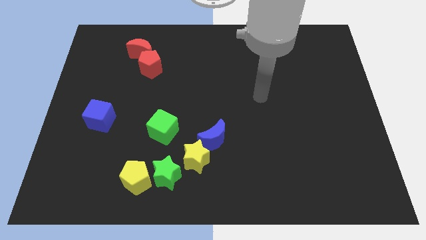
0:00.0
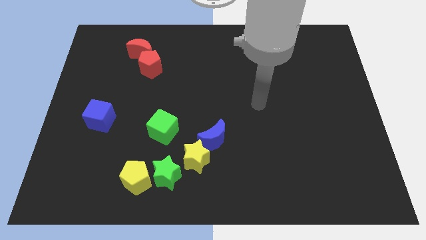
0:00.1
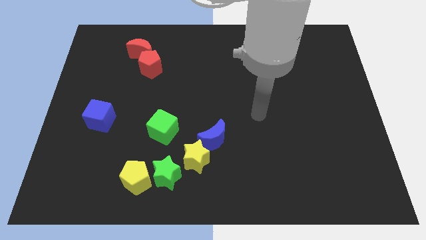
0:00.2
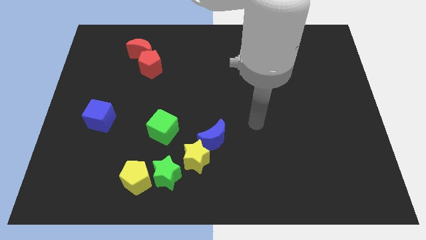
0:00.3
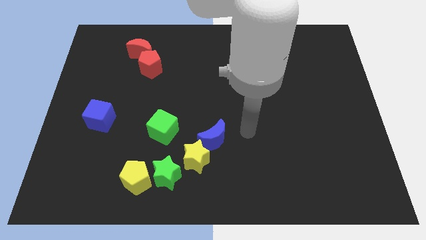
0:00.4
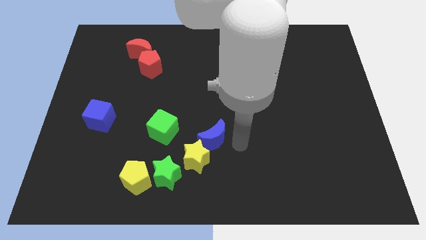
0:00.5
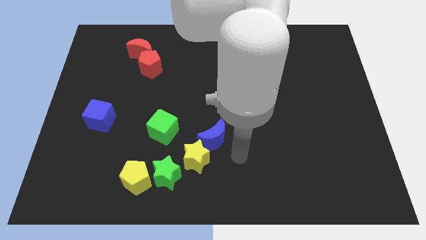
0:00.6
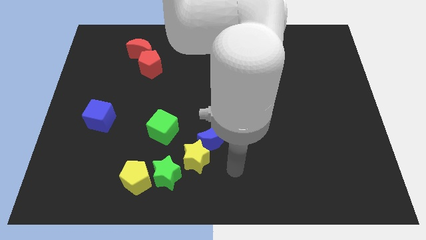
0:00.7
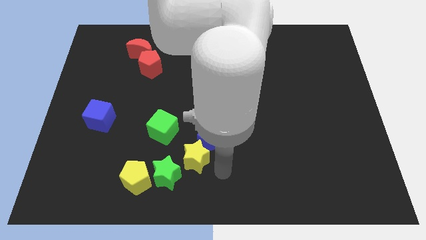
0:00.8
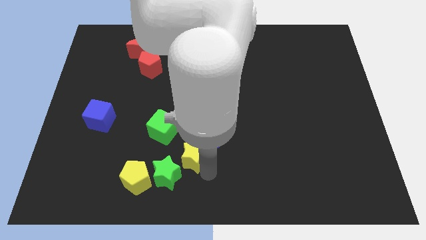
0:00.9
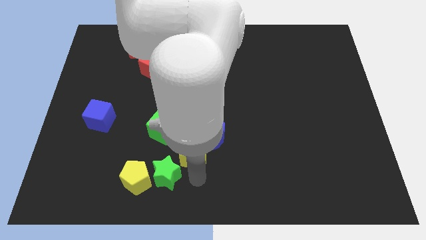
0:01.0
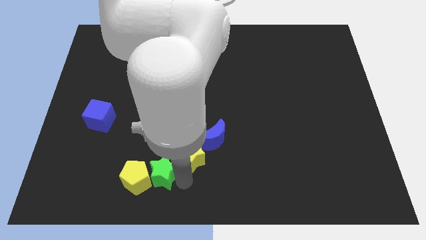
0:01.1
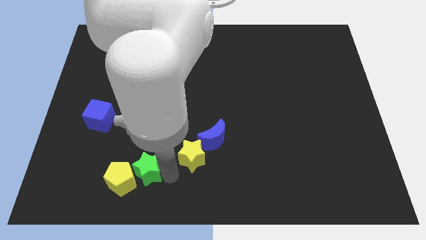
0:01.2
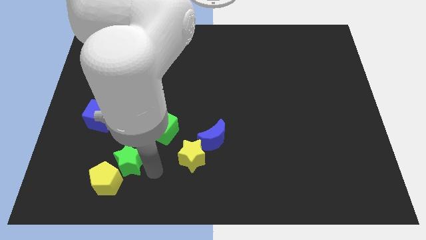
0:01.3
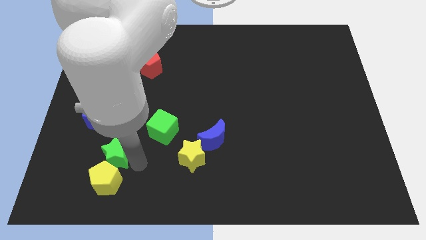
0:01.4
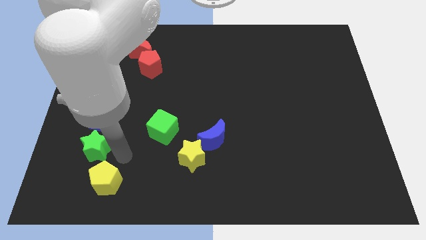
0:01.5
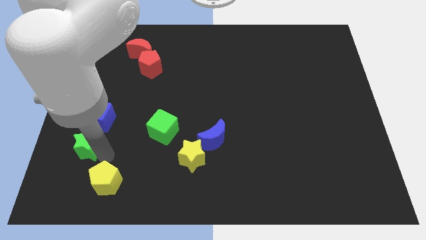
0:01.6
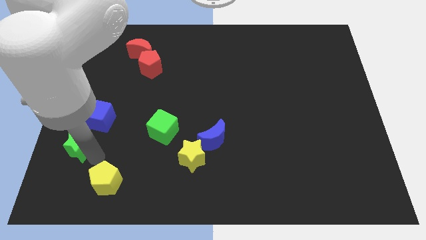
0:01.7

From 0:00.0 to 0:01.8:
separate the yellow pentagon from the green star

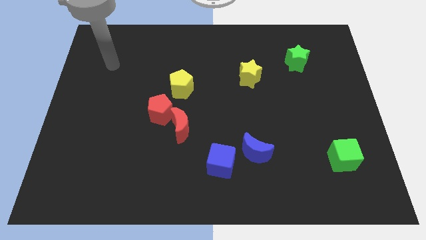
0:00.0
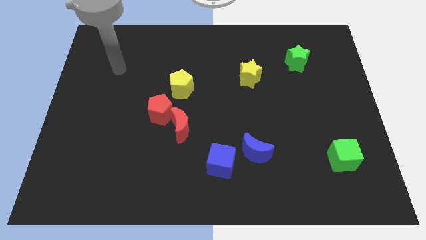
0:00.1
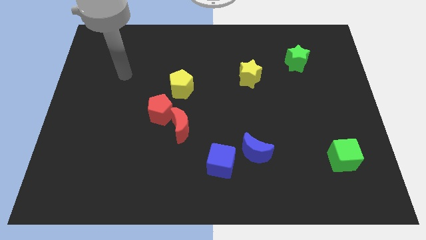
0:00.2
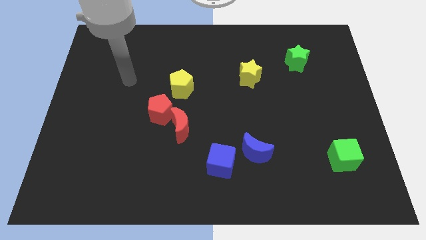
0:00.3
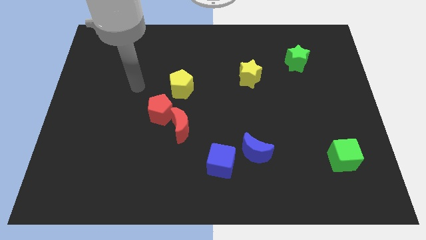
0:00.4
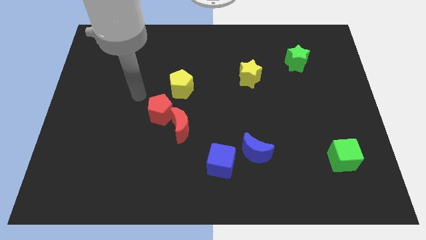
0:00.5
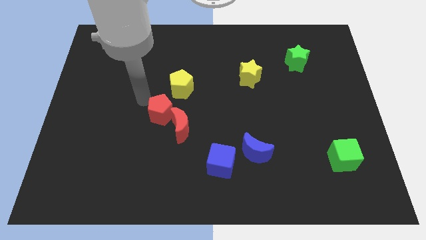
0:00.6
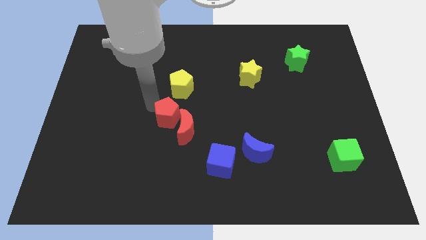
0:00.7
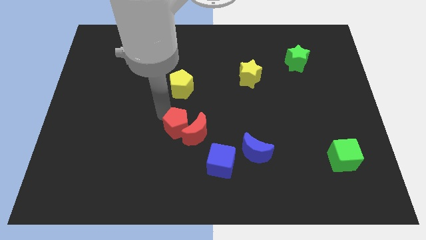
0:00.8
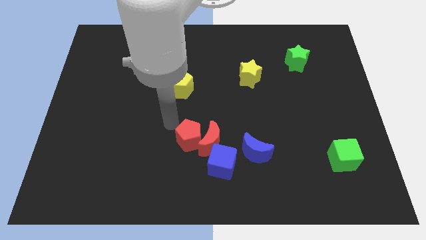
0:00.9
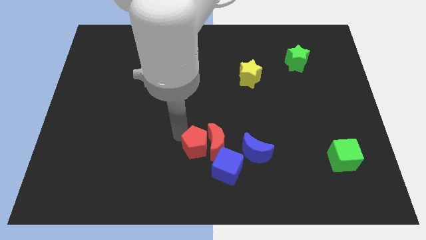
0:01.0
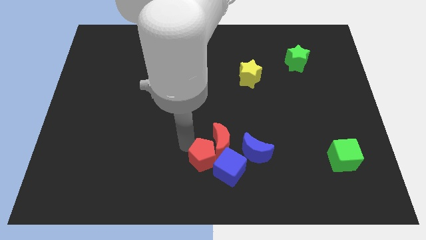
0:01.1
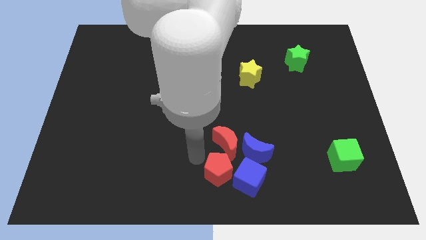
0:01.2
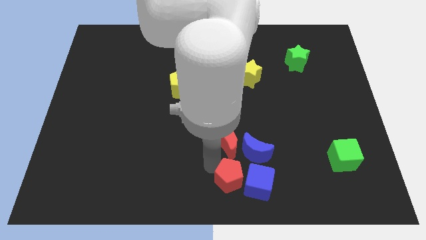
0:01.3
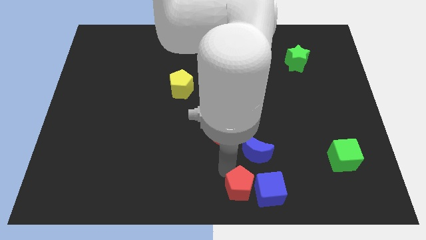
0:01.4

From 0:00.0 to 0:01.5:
move the red moon away from the red pentagon

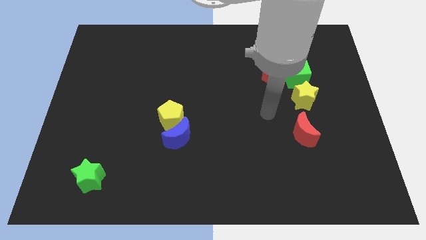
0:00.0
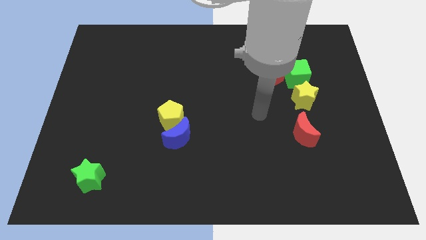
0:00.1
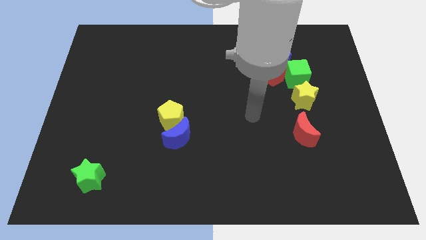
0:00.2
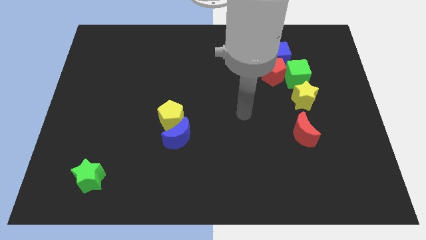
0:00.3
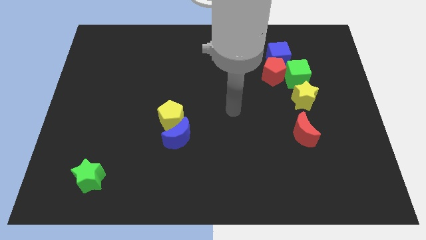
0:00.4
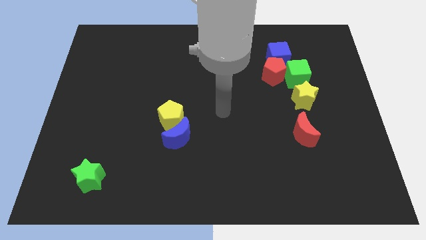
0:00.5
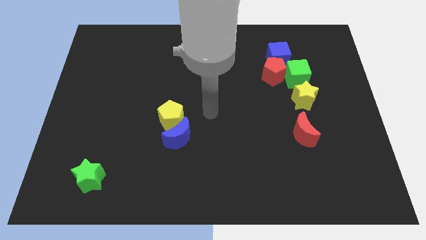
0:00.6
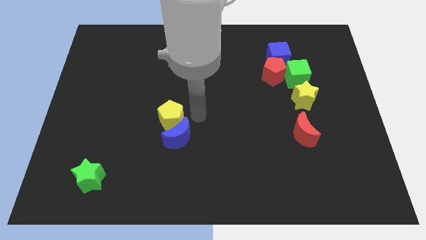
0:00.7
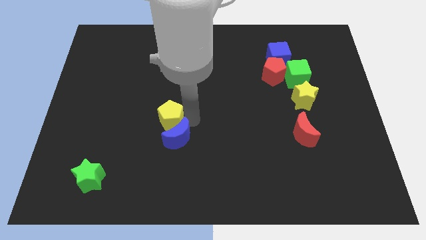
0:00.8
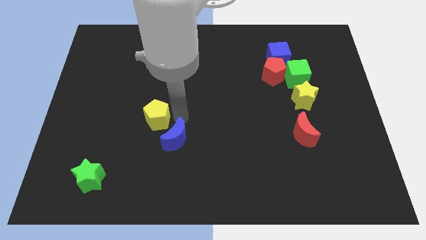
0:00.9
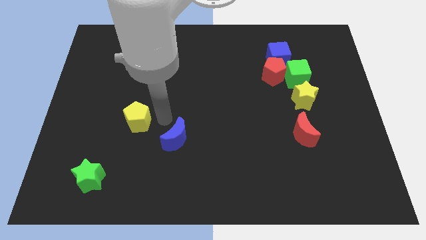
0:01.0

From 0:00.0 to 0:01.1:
move the blue moon away from the yellow pentagon

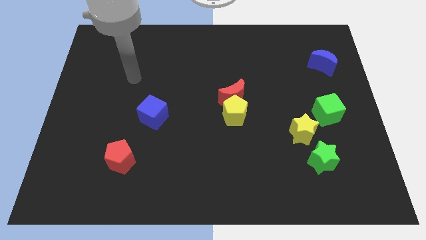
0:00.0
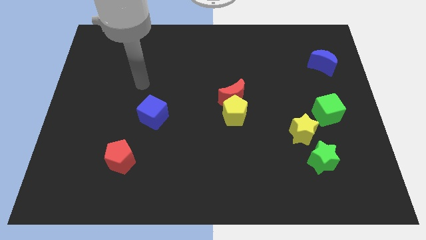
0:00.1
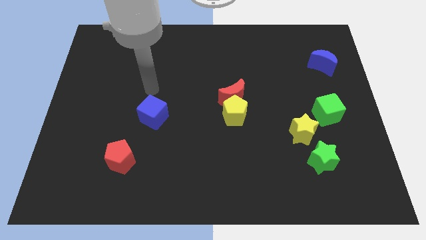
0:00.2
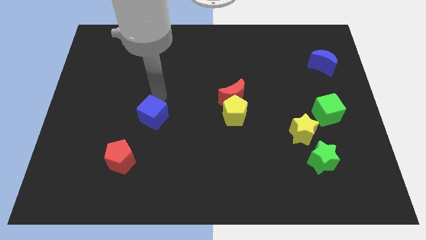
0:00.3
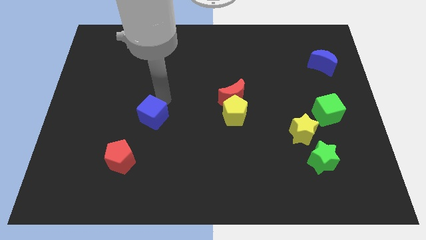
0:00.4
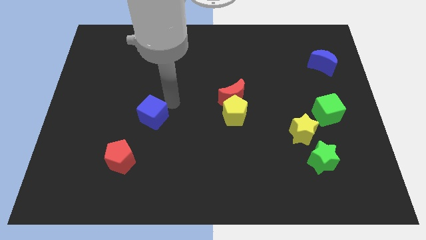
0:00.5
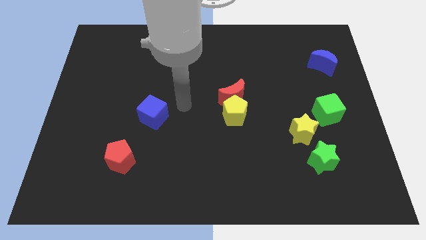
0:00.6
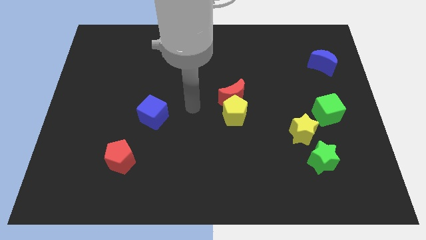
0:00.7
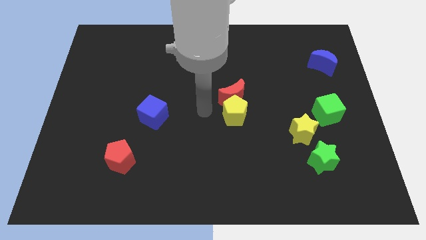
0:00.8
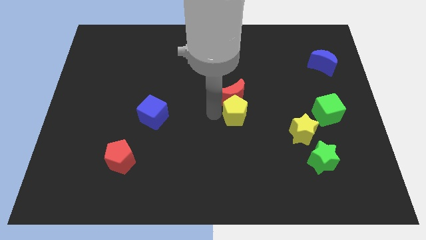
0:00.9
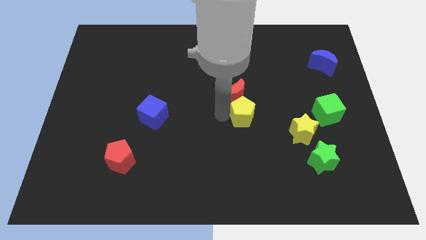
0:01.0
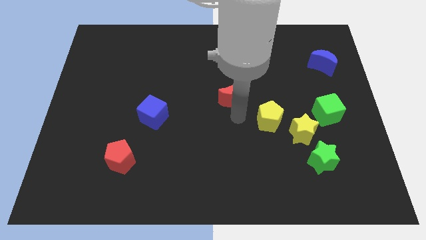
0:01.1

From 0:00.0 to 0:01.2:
separate the red moon from the yellow pentagon

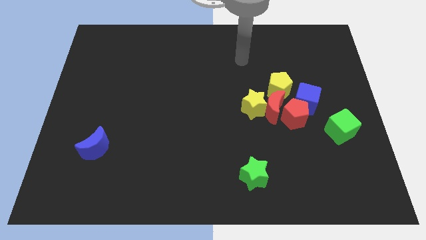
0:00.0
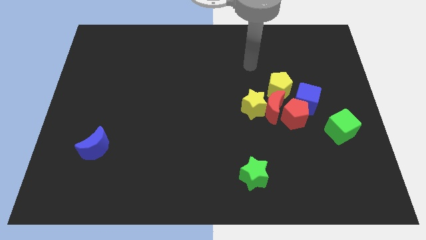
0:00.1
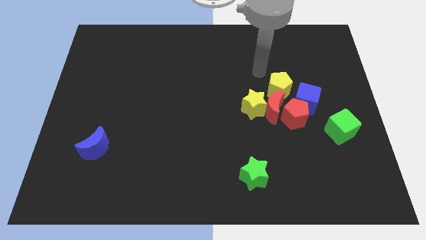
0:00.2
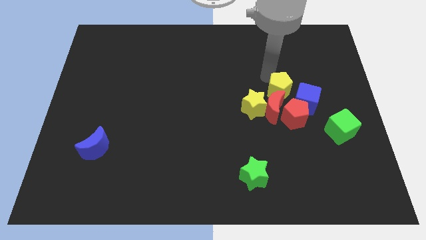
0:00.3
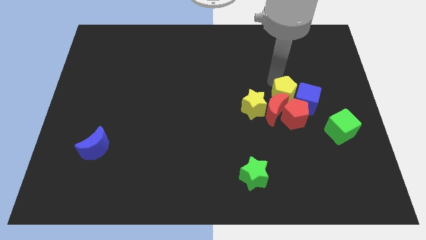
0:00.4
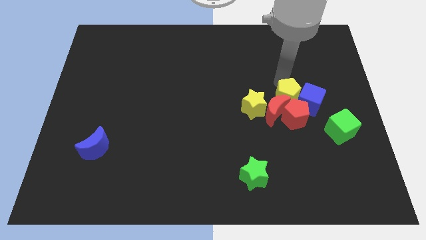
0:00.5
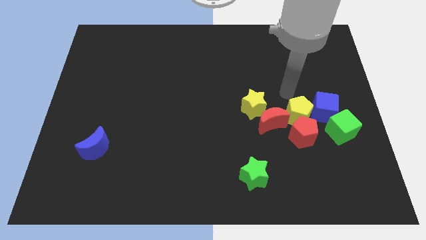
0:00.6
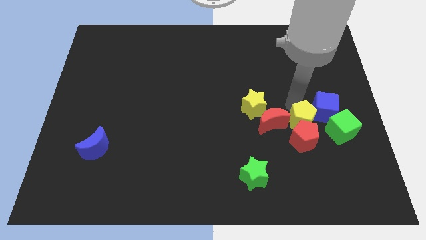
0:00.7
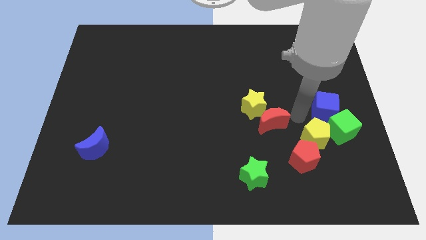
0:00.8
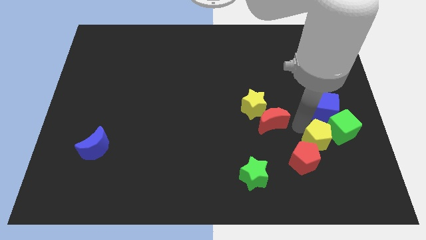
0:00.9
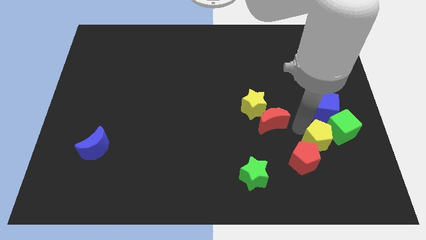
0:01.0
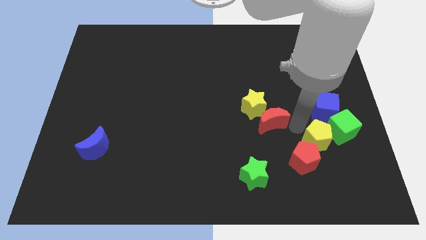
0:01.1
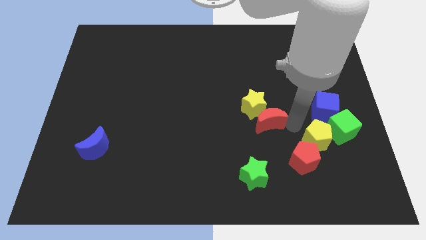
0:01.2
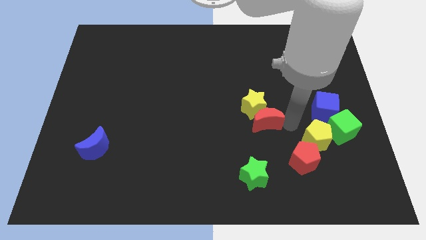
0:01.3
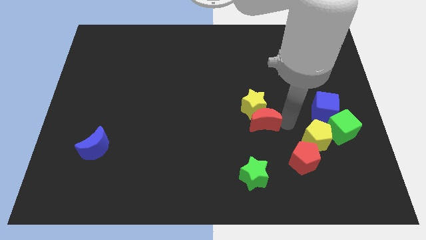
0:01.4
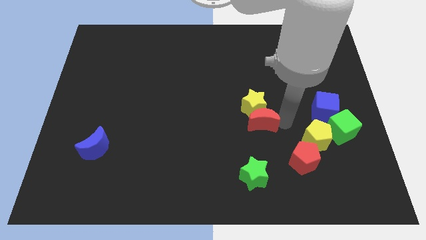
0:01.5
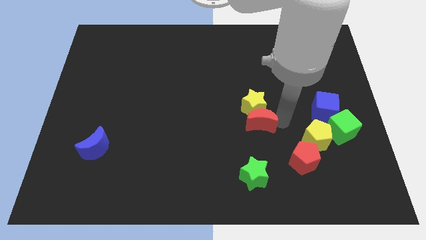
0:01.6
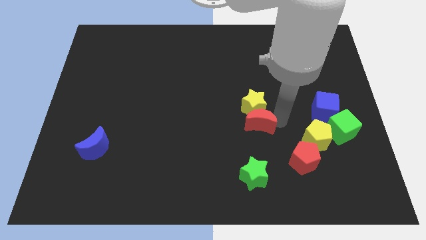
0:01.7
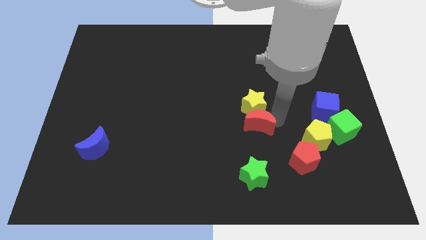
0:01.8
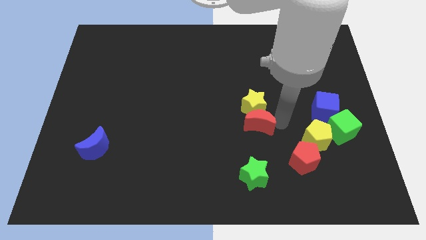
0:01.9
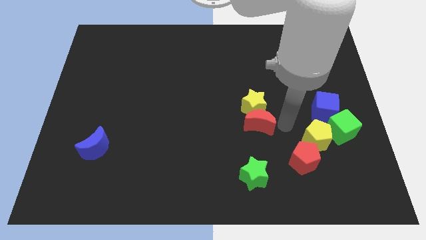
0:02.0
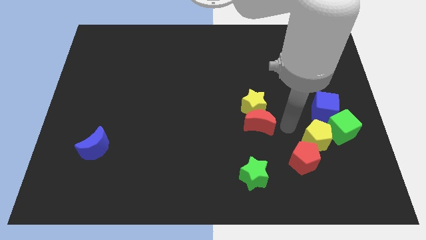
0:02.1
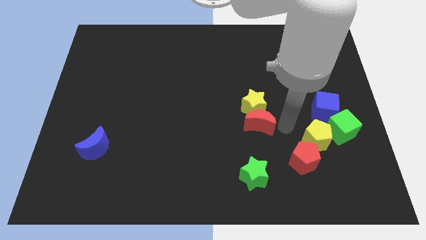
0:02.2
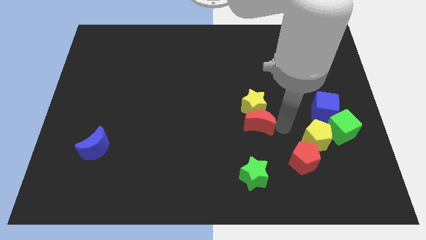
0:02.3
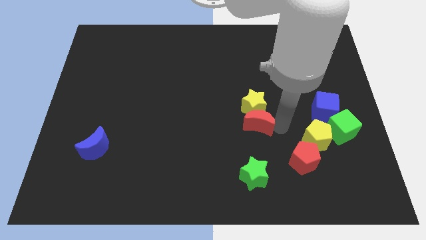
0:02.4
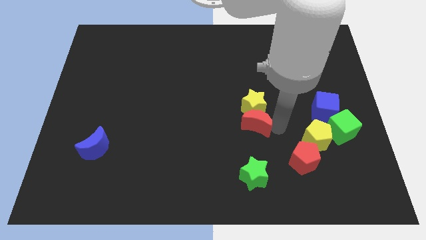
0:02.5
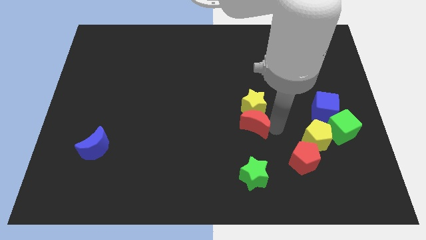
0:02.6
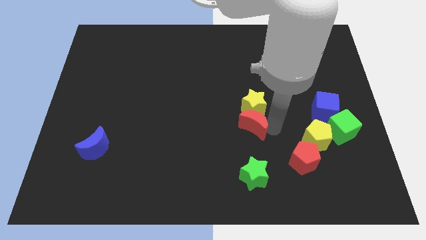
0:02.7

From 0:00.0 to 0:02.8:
separate the red moon from the group

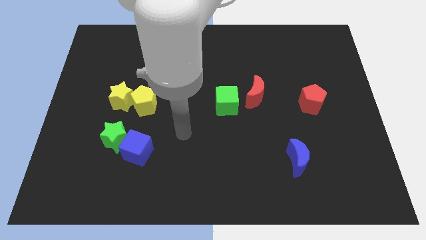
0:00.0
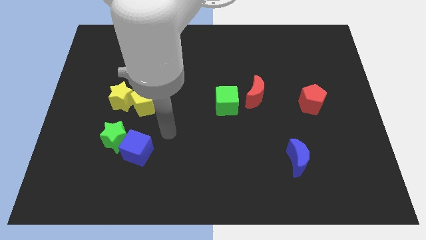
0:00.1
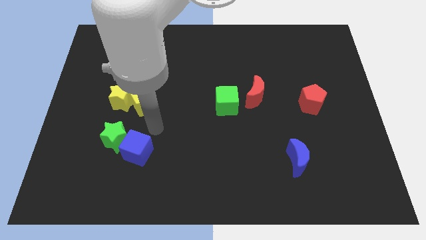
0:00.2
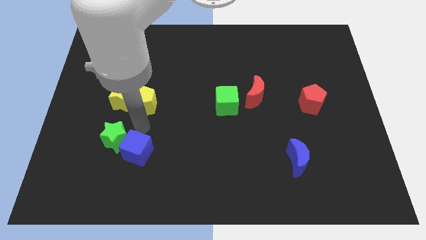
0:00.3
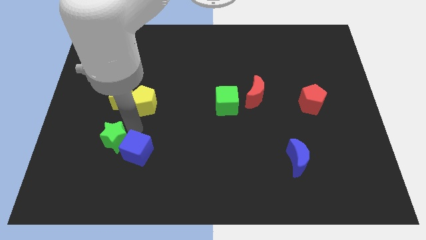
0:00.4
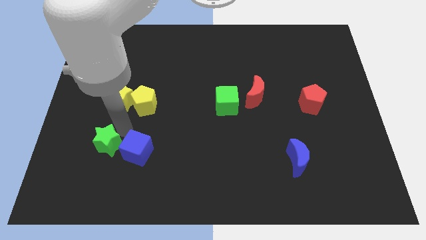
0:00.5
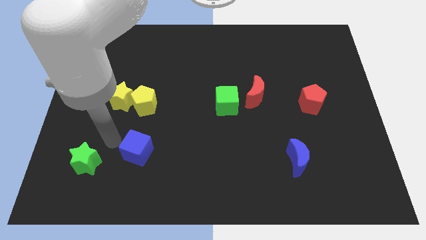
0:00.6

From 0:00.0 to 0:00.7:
pull the blue cube apart from the green star

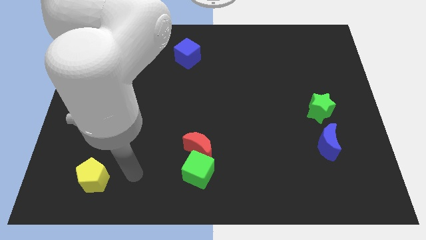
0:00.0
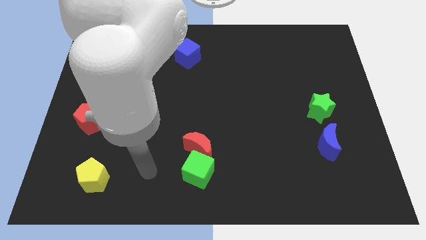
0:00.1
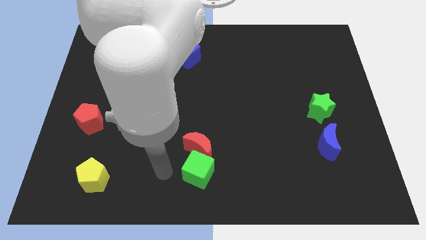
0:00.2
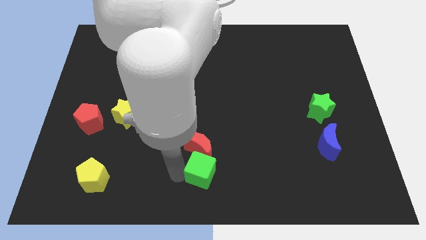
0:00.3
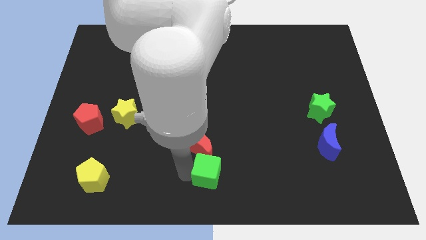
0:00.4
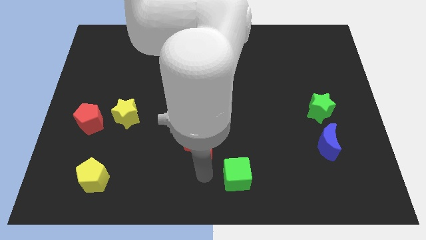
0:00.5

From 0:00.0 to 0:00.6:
pull the red moon apart from the green cube
